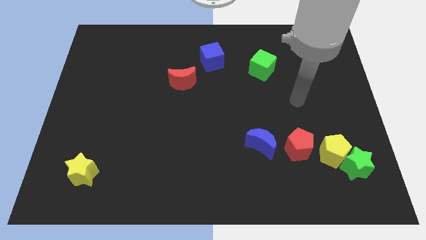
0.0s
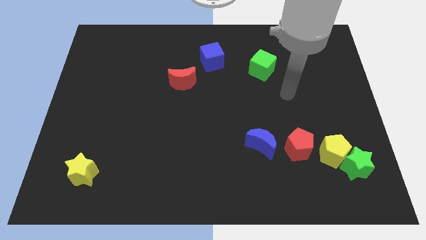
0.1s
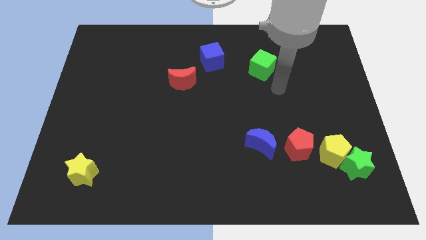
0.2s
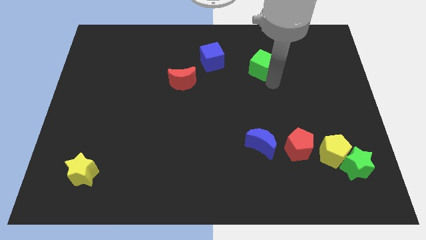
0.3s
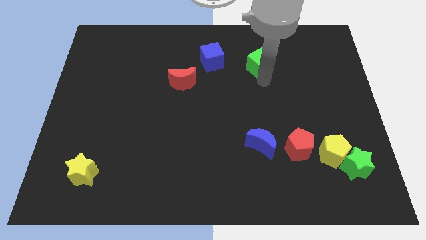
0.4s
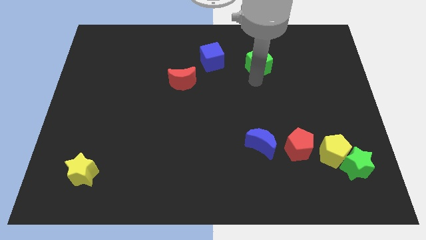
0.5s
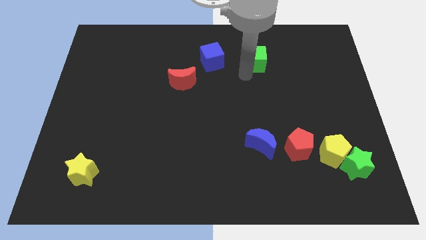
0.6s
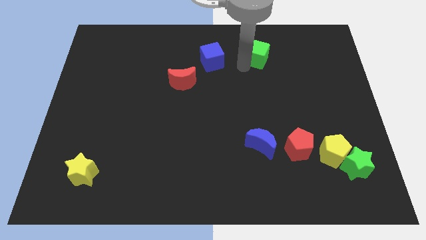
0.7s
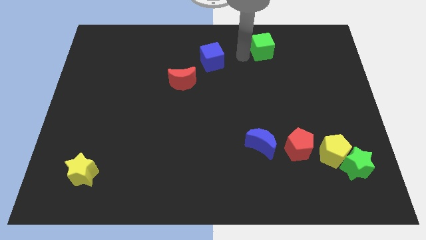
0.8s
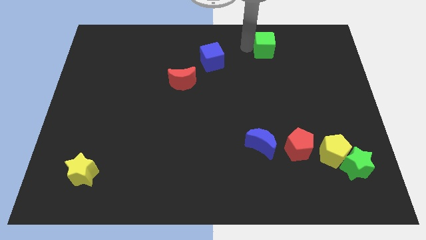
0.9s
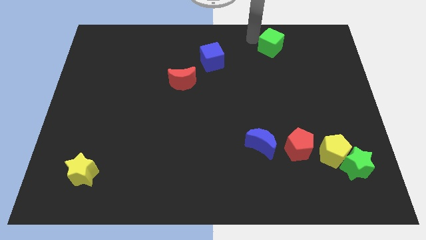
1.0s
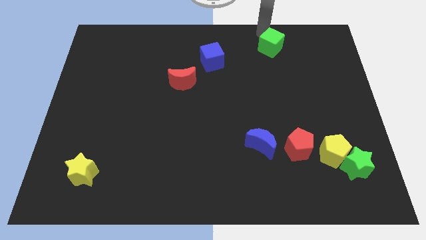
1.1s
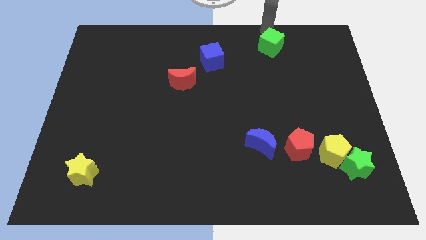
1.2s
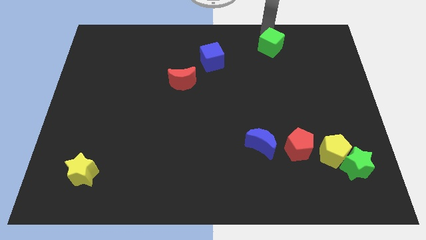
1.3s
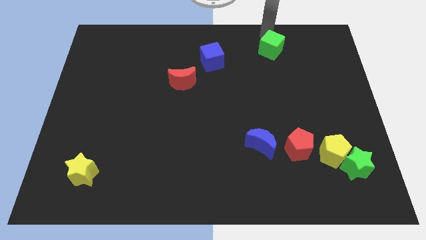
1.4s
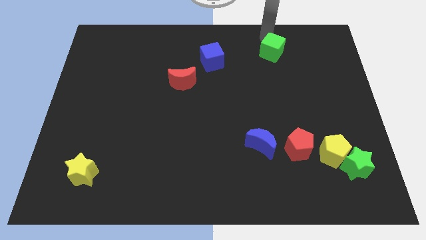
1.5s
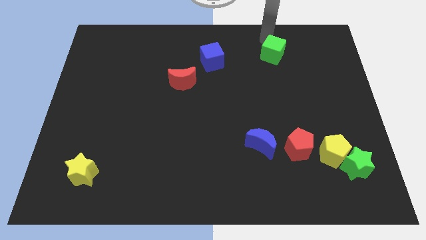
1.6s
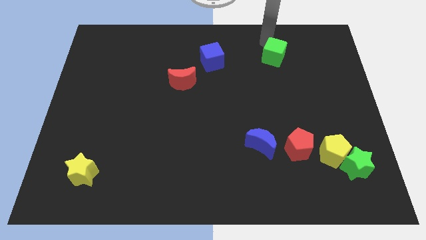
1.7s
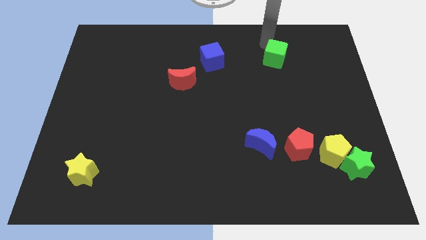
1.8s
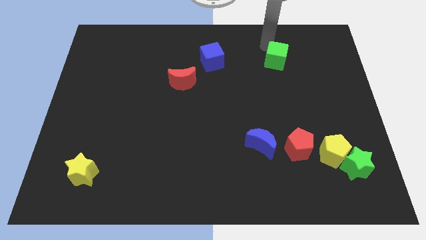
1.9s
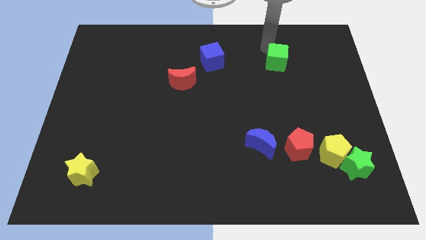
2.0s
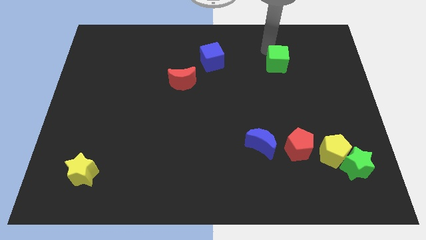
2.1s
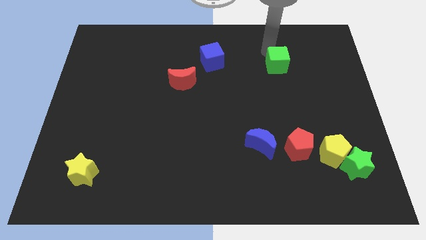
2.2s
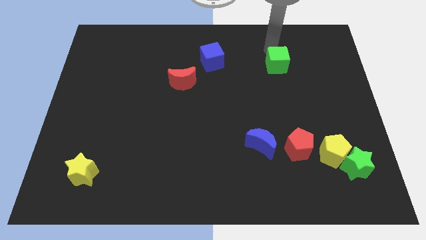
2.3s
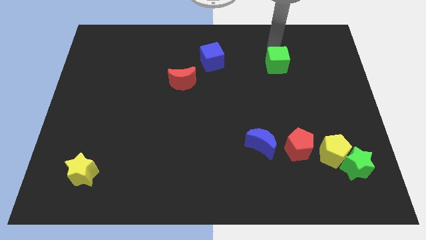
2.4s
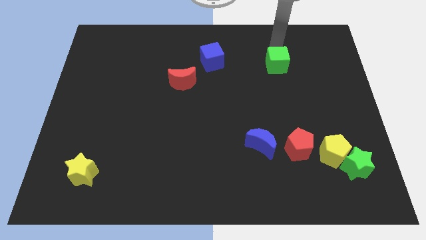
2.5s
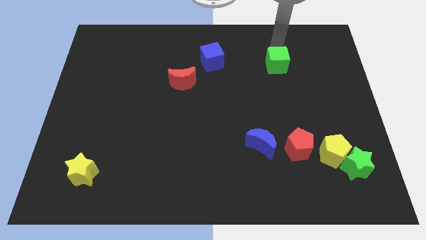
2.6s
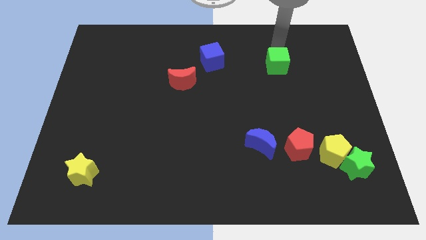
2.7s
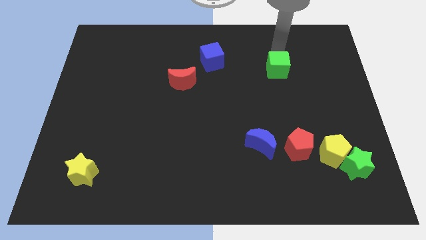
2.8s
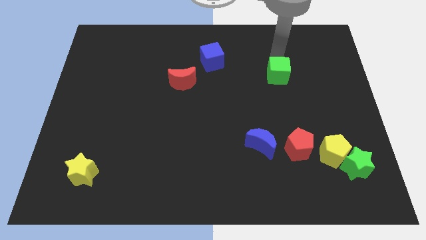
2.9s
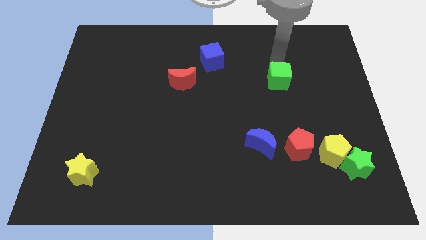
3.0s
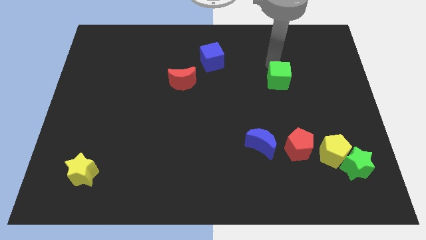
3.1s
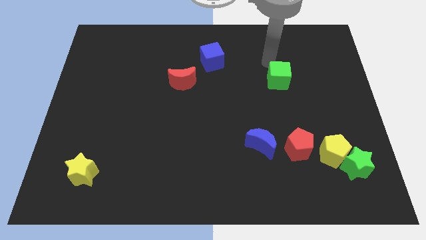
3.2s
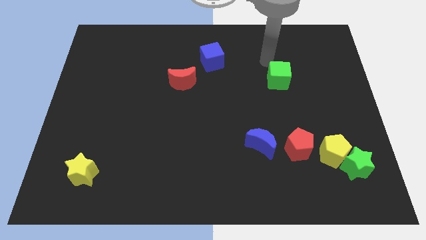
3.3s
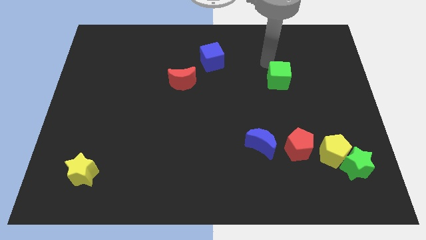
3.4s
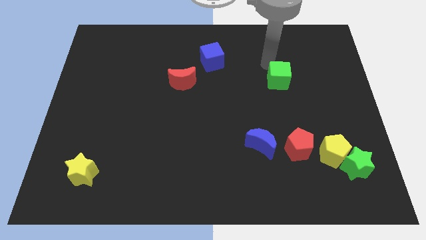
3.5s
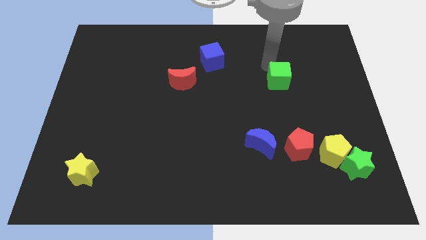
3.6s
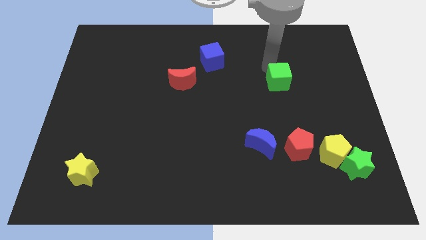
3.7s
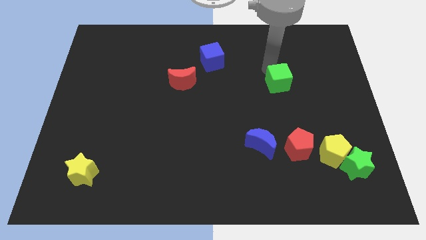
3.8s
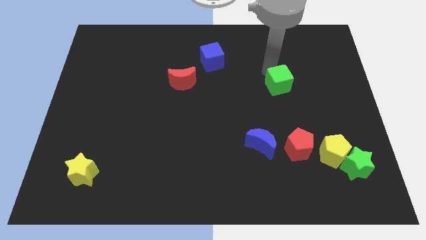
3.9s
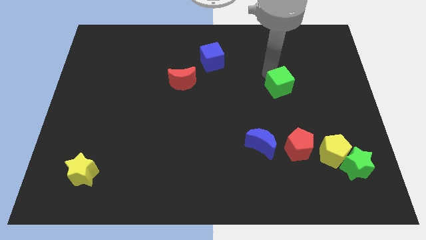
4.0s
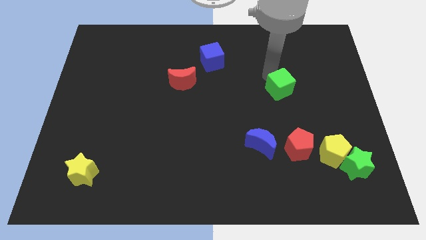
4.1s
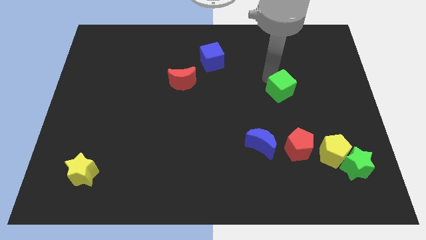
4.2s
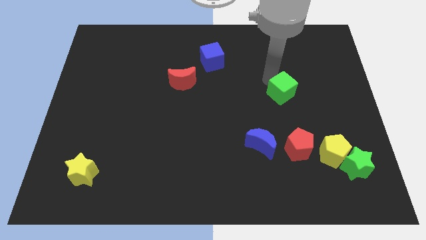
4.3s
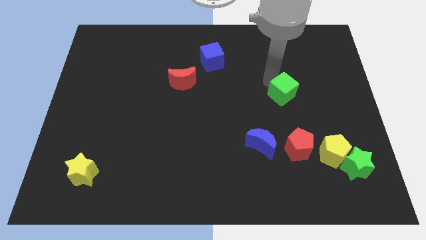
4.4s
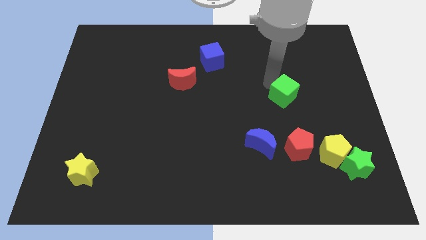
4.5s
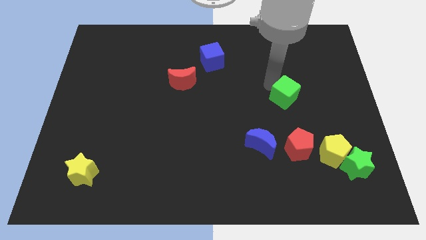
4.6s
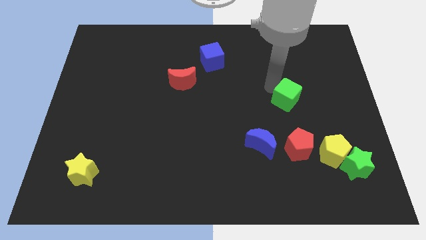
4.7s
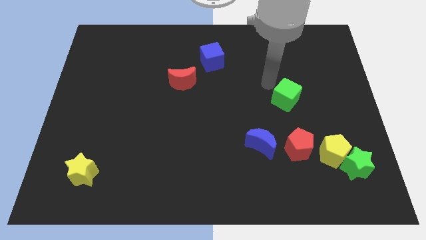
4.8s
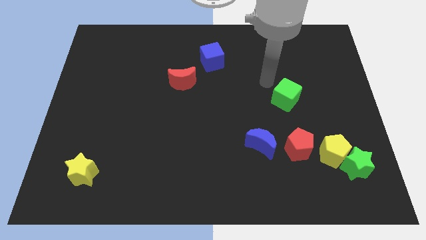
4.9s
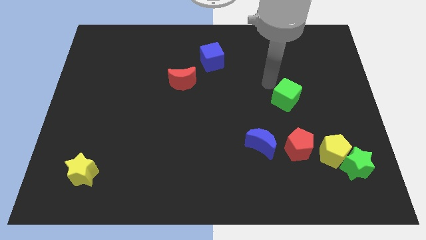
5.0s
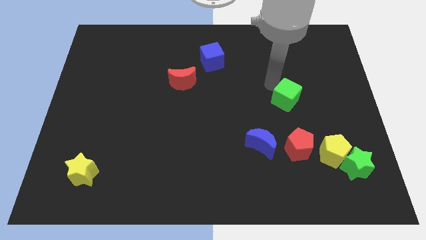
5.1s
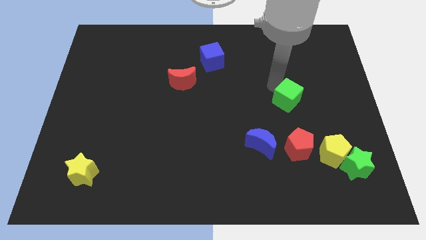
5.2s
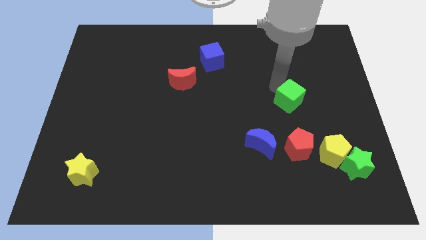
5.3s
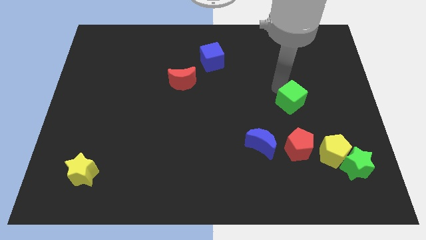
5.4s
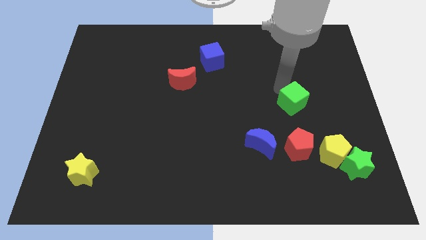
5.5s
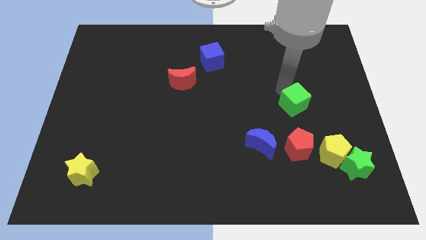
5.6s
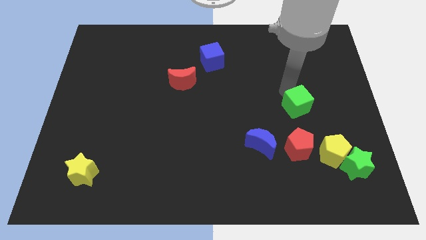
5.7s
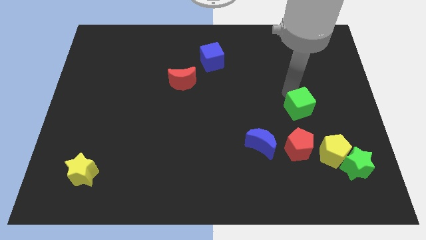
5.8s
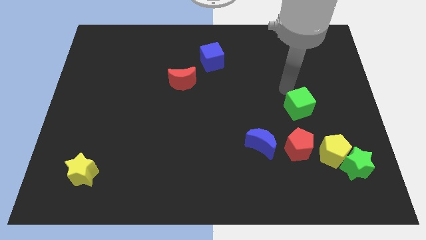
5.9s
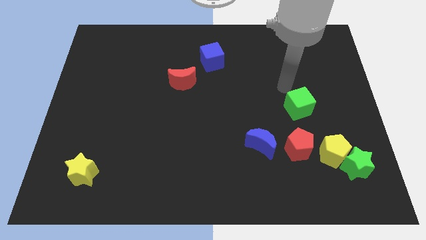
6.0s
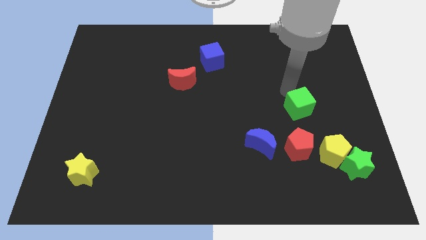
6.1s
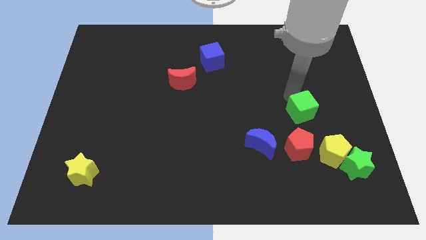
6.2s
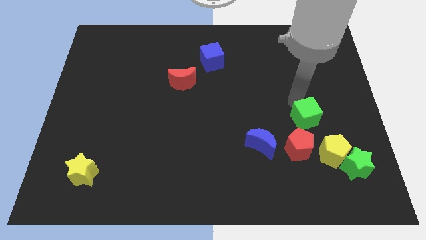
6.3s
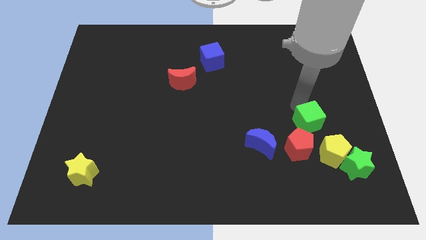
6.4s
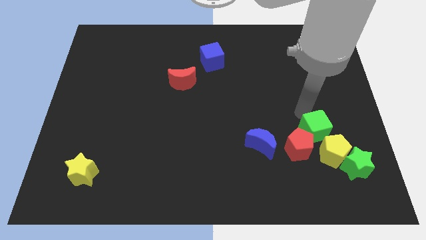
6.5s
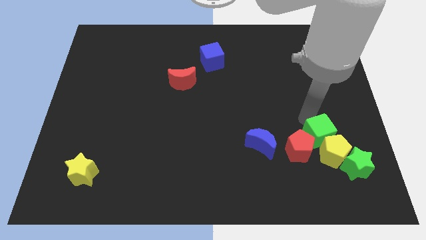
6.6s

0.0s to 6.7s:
move the green cube to the yellow pentagon

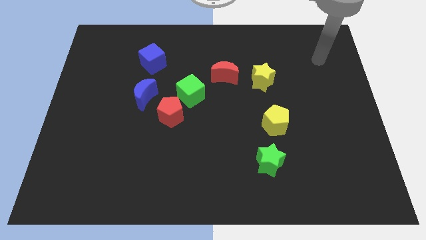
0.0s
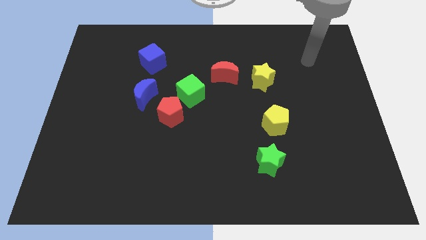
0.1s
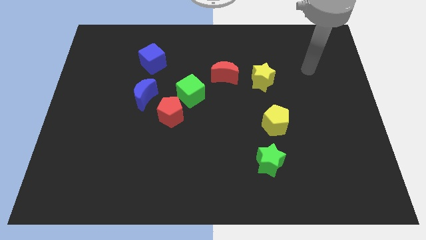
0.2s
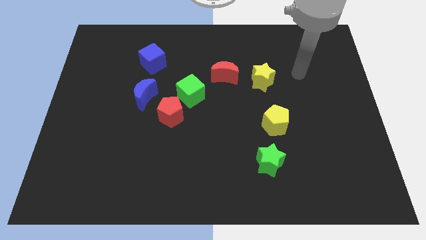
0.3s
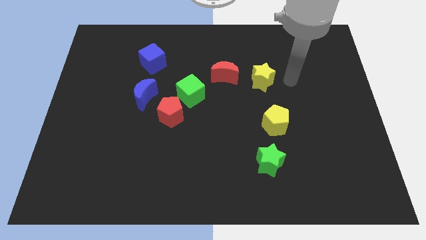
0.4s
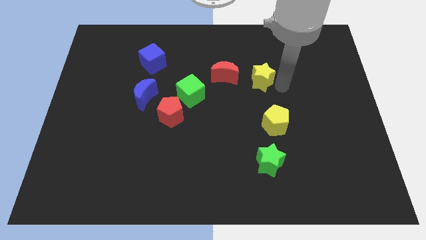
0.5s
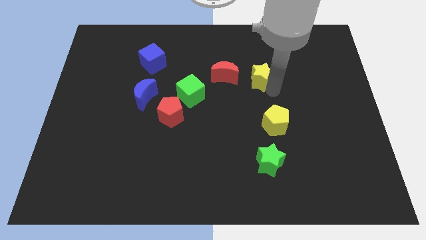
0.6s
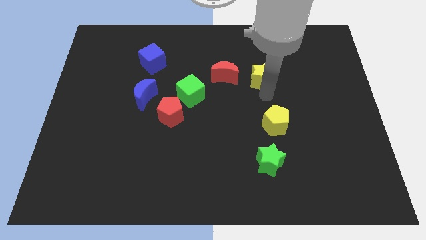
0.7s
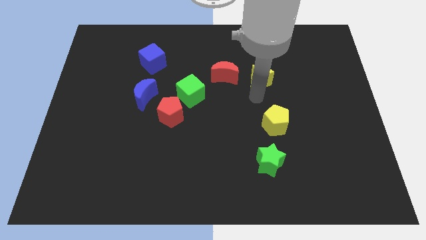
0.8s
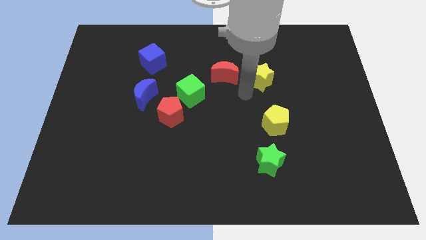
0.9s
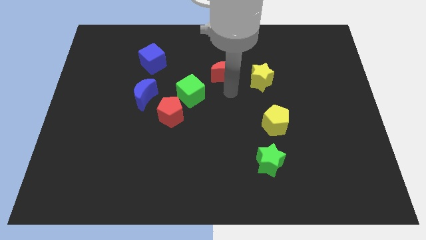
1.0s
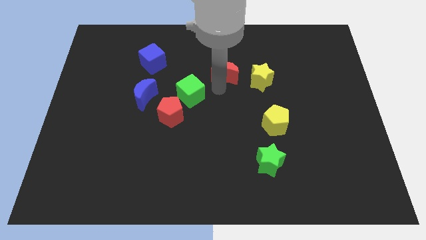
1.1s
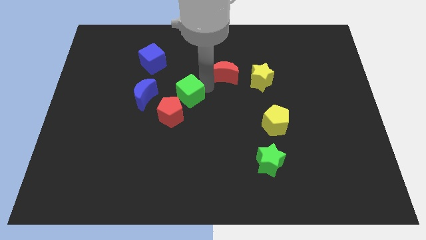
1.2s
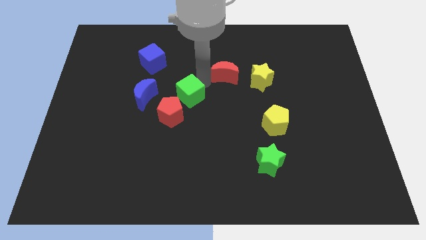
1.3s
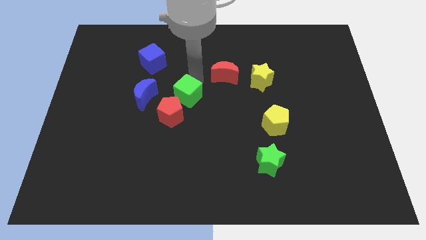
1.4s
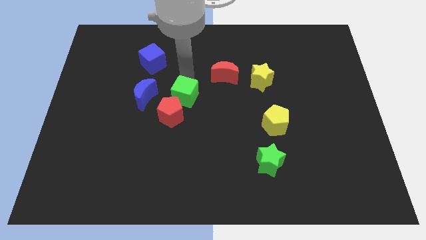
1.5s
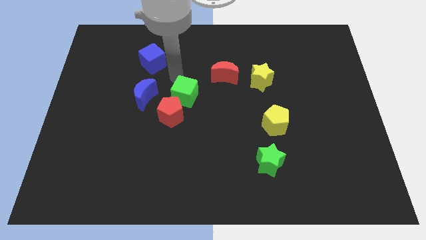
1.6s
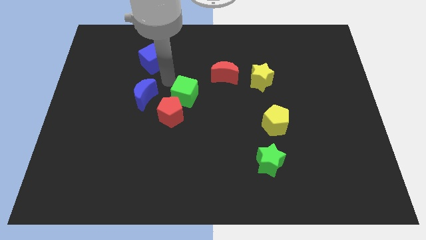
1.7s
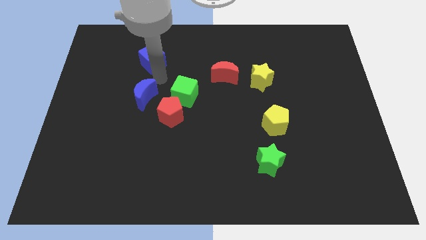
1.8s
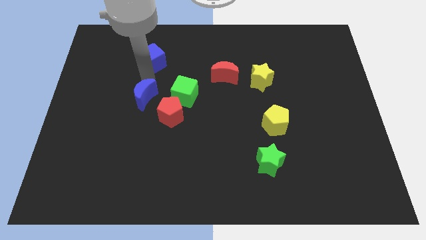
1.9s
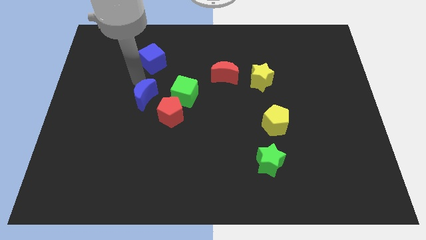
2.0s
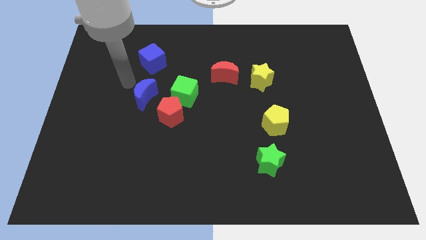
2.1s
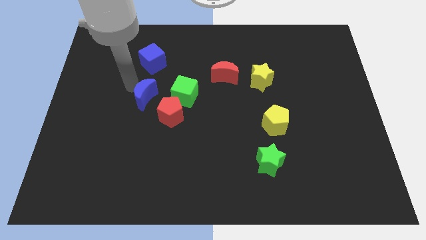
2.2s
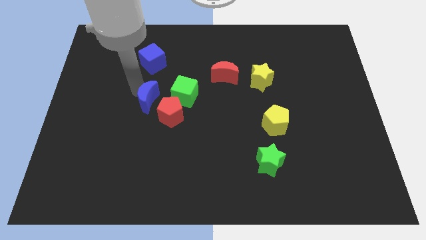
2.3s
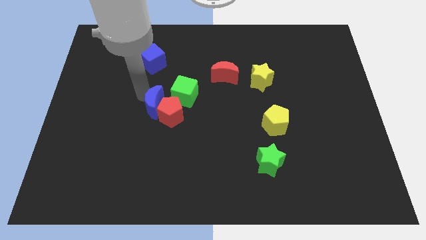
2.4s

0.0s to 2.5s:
put the blue moon next to the red pentagon
